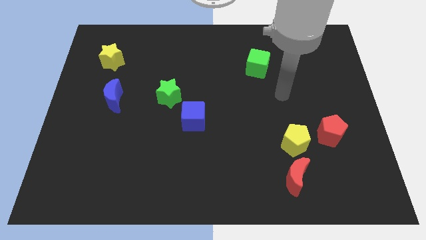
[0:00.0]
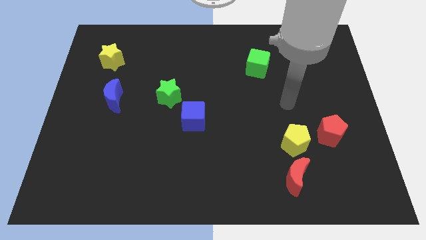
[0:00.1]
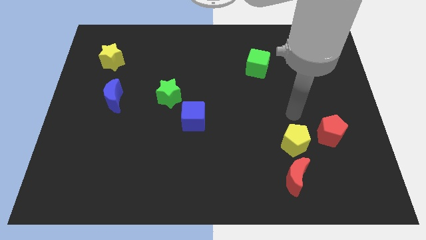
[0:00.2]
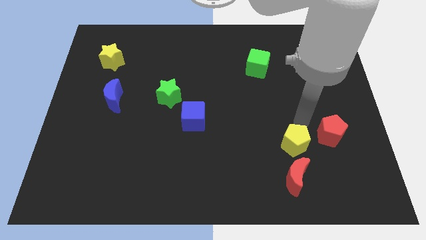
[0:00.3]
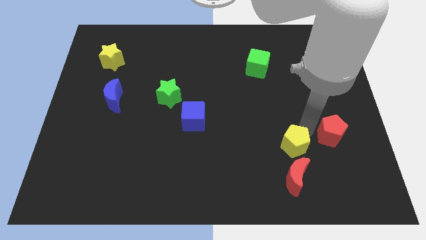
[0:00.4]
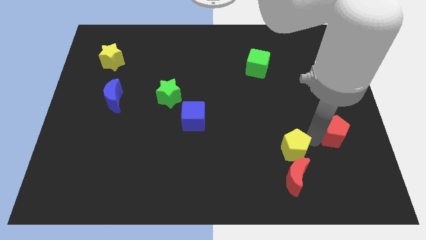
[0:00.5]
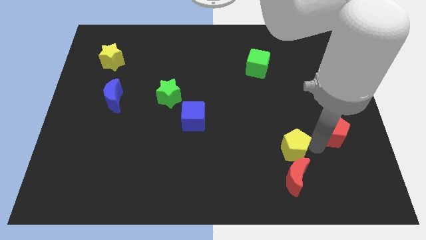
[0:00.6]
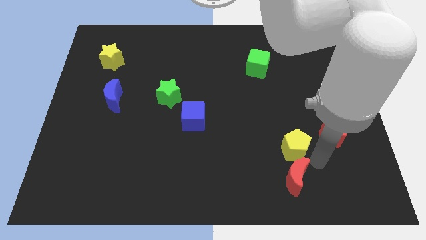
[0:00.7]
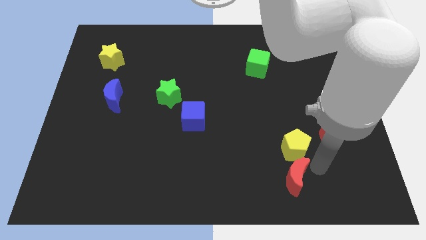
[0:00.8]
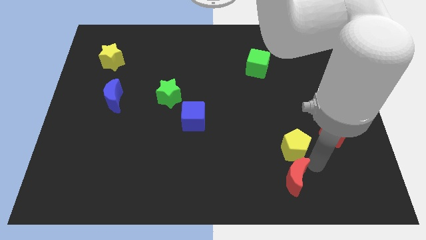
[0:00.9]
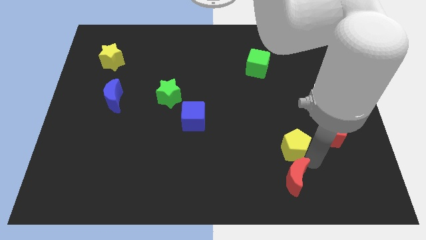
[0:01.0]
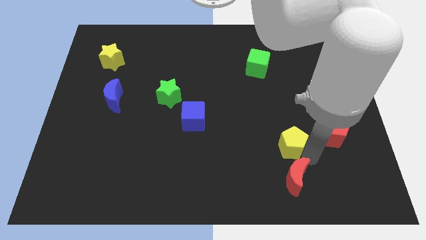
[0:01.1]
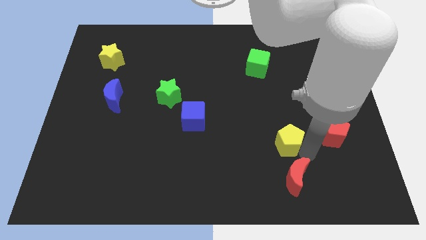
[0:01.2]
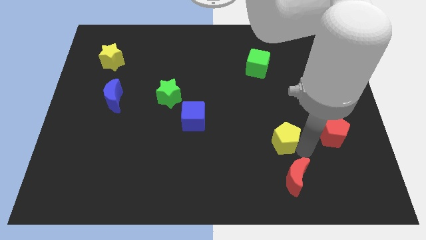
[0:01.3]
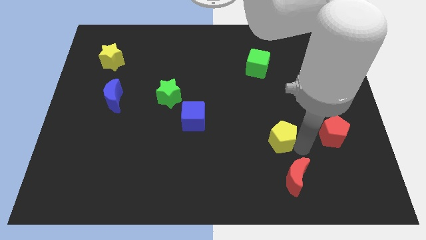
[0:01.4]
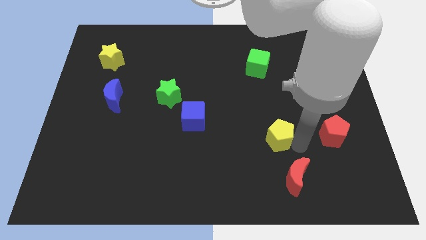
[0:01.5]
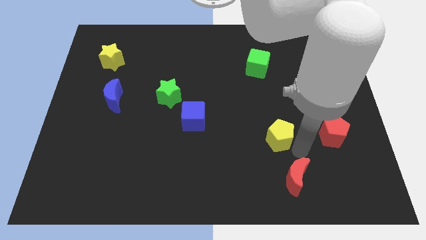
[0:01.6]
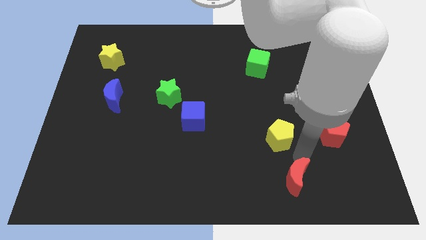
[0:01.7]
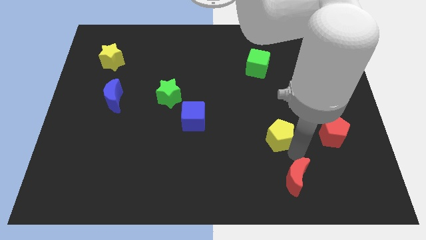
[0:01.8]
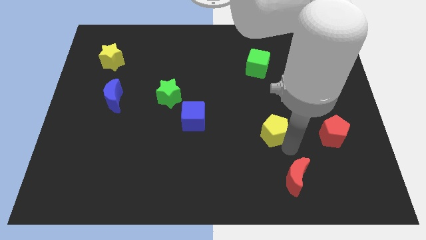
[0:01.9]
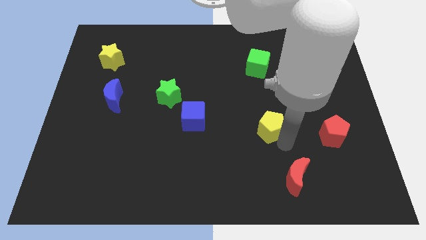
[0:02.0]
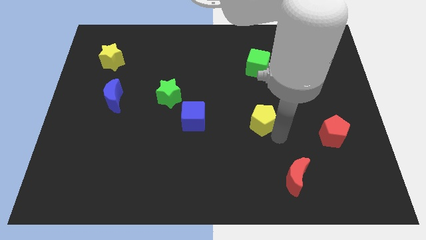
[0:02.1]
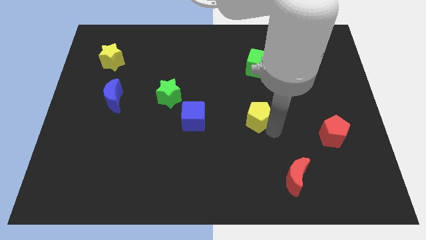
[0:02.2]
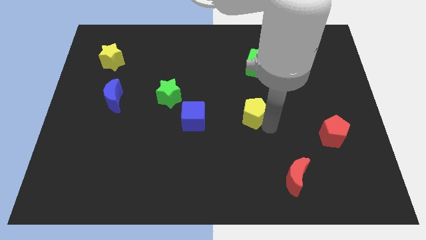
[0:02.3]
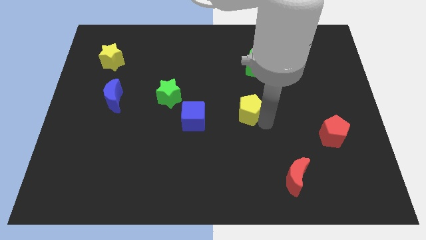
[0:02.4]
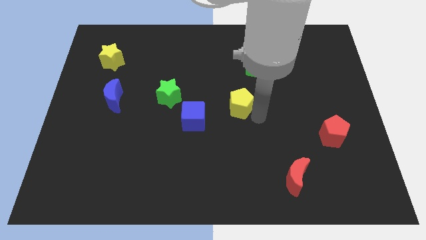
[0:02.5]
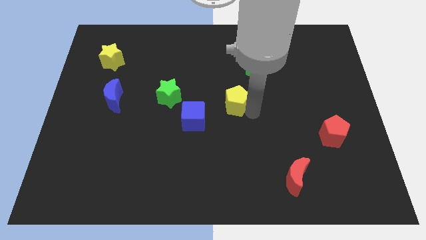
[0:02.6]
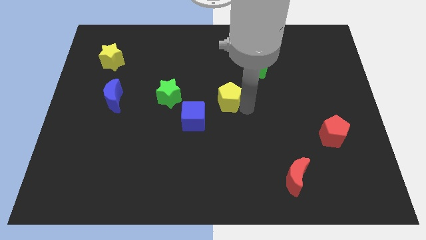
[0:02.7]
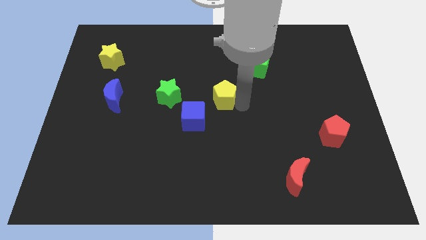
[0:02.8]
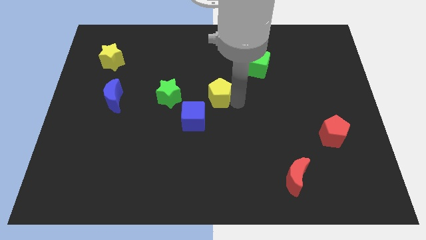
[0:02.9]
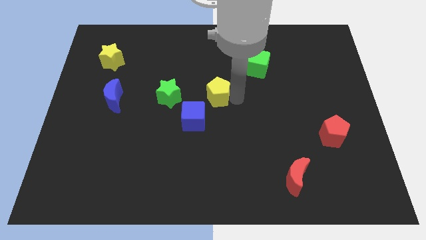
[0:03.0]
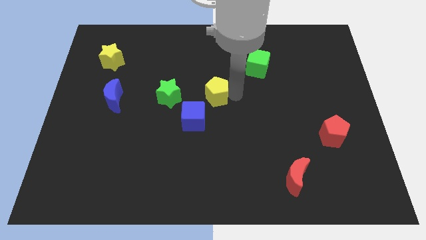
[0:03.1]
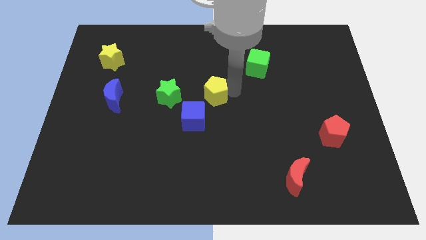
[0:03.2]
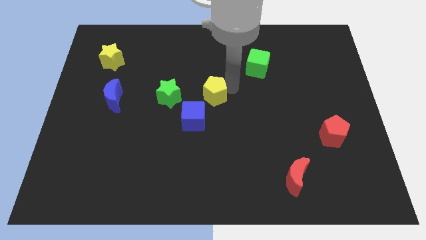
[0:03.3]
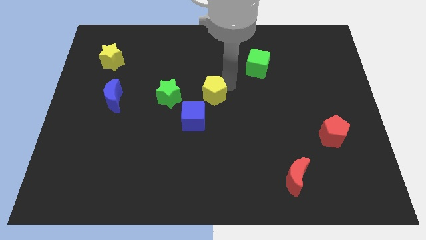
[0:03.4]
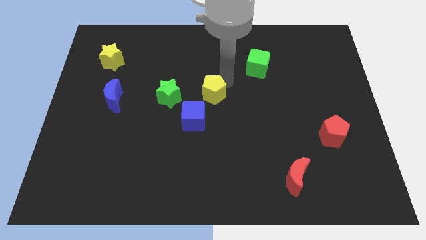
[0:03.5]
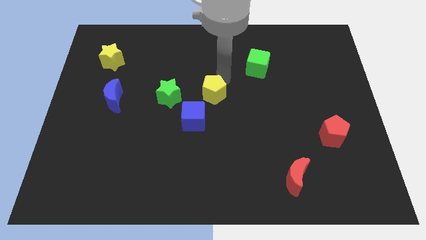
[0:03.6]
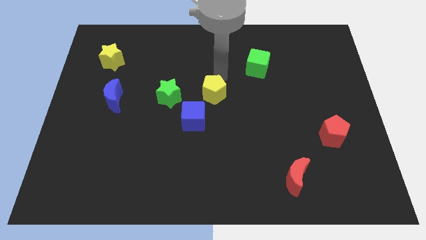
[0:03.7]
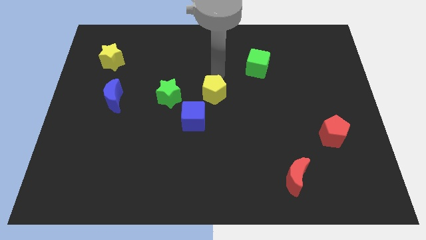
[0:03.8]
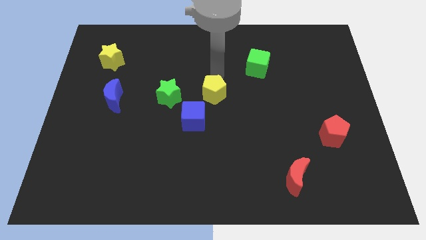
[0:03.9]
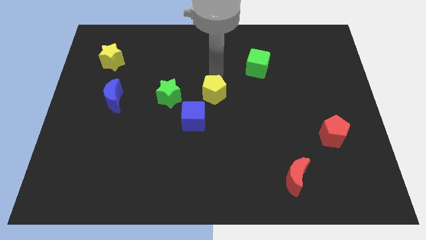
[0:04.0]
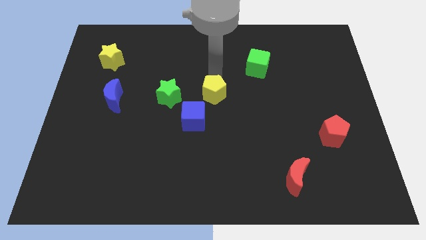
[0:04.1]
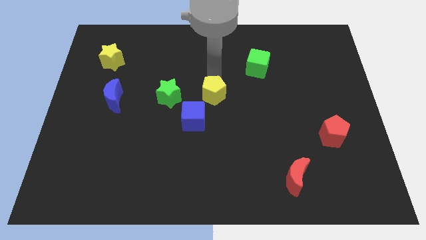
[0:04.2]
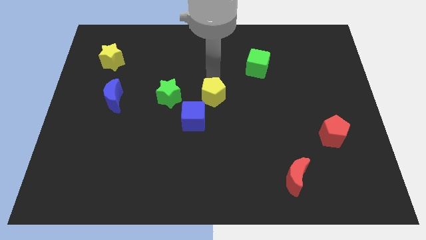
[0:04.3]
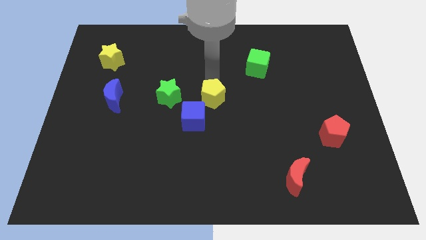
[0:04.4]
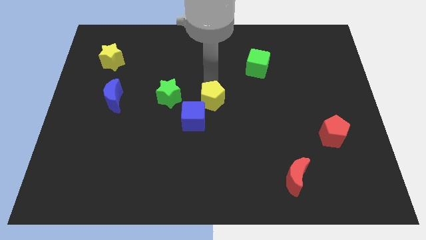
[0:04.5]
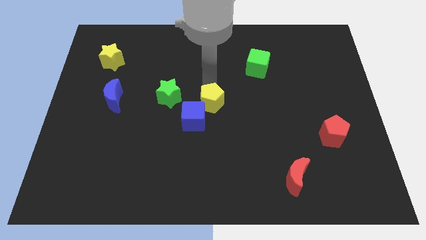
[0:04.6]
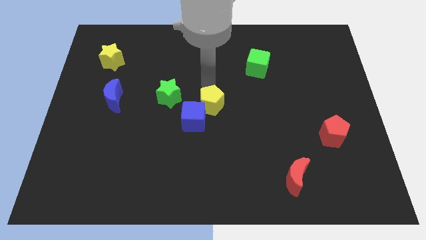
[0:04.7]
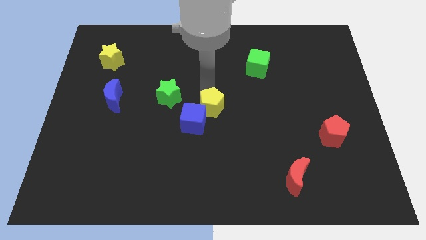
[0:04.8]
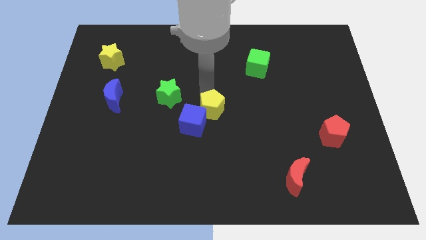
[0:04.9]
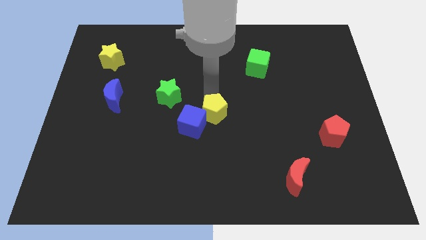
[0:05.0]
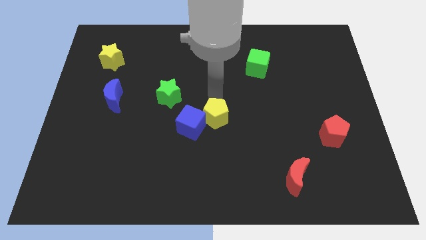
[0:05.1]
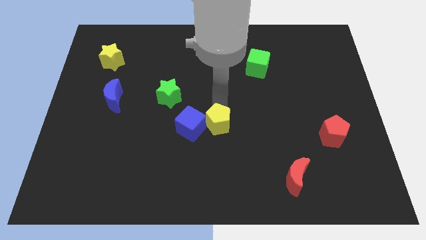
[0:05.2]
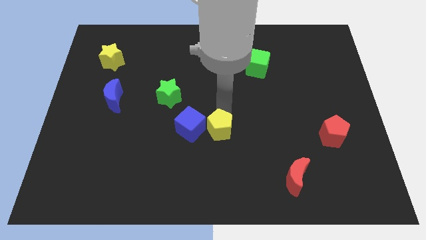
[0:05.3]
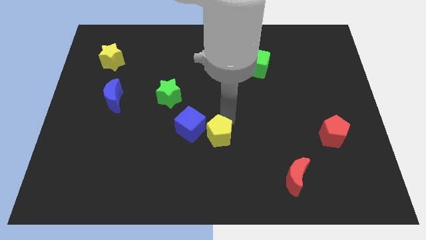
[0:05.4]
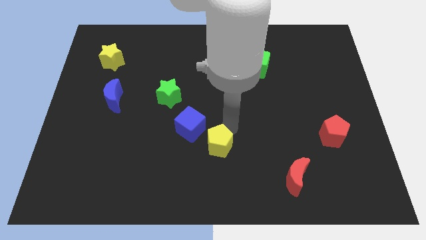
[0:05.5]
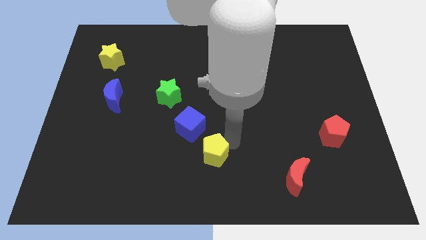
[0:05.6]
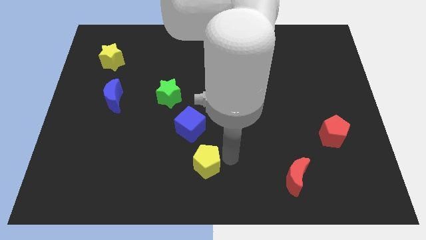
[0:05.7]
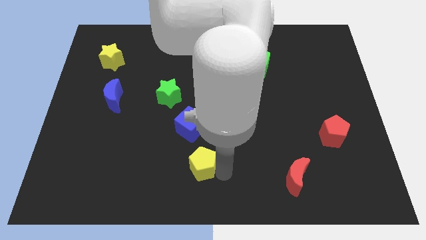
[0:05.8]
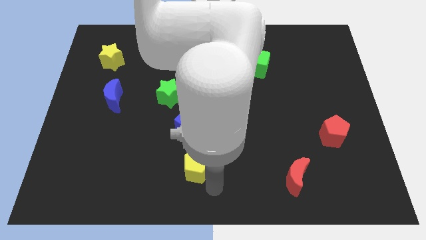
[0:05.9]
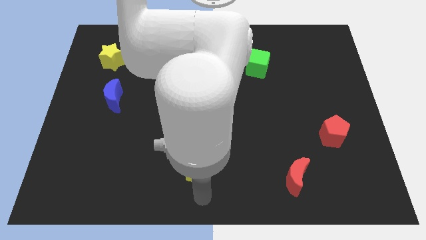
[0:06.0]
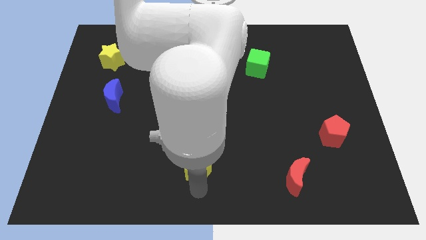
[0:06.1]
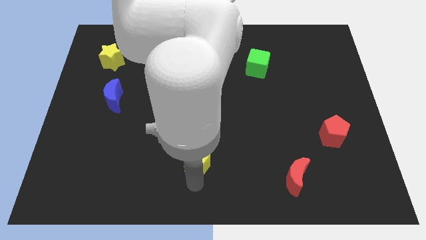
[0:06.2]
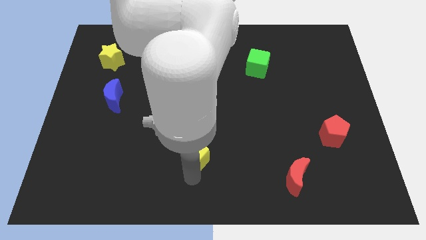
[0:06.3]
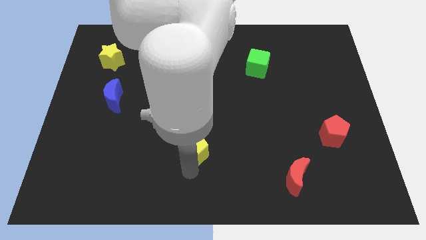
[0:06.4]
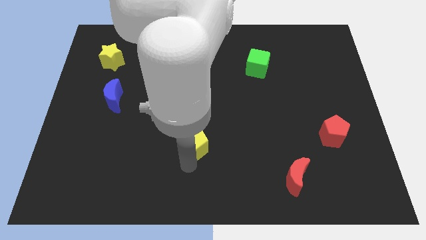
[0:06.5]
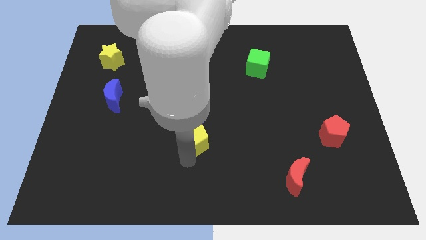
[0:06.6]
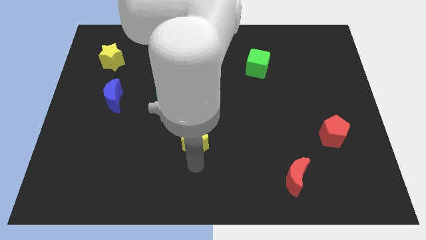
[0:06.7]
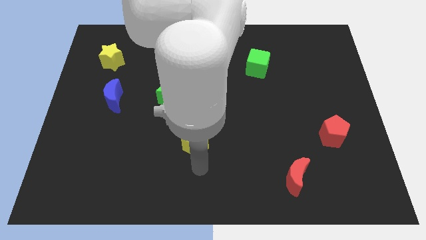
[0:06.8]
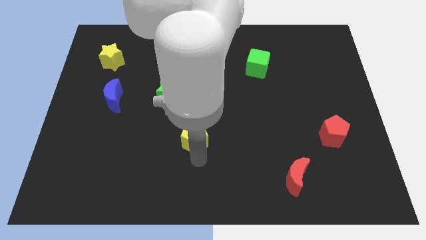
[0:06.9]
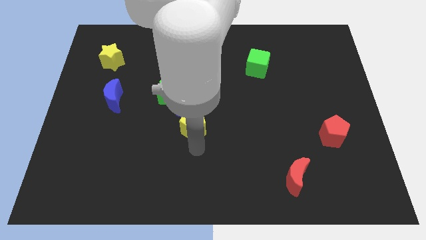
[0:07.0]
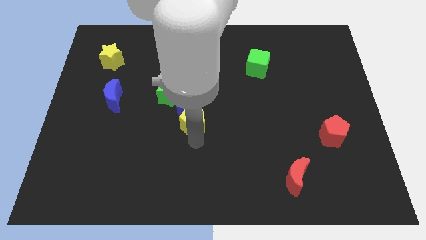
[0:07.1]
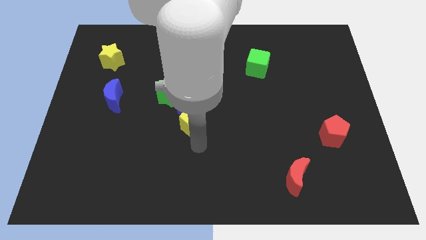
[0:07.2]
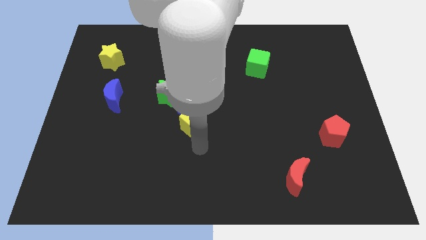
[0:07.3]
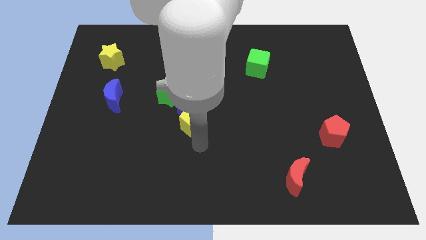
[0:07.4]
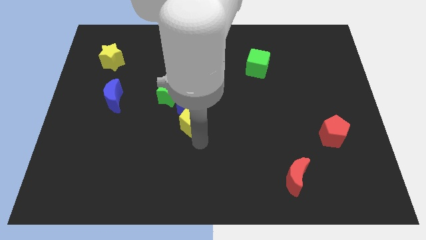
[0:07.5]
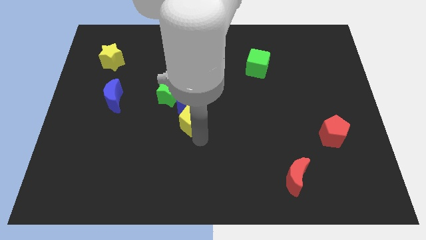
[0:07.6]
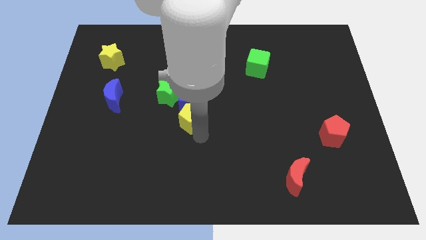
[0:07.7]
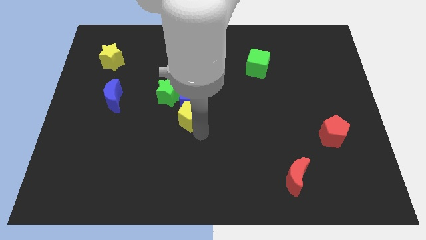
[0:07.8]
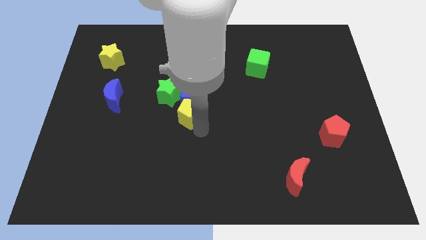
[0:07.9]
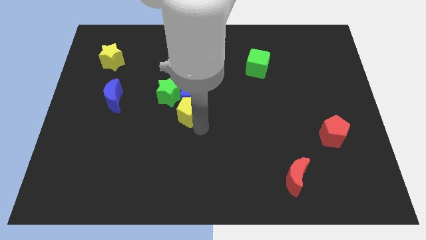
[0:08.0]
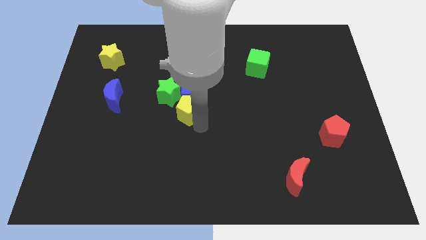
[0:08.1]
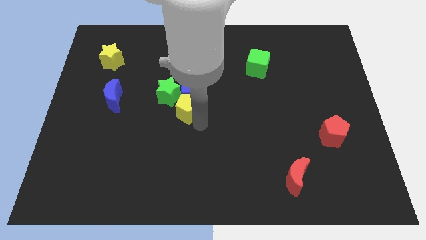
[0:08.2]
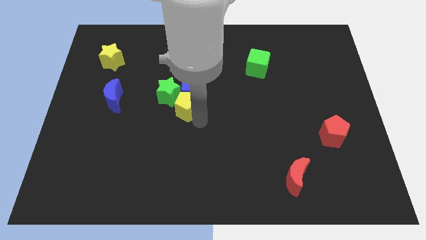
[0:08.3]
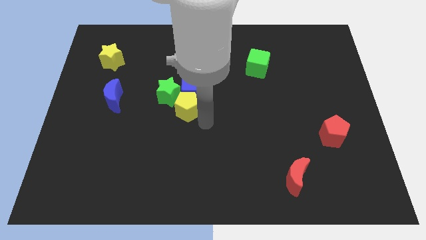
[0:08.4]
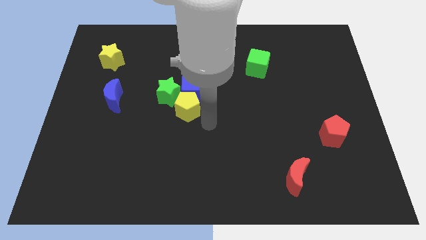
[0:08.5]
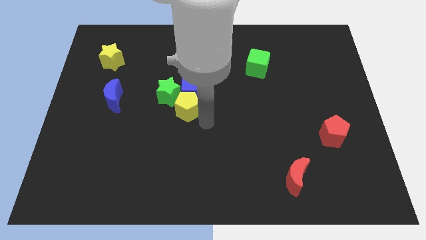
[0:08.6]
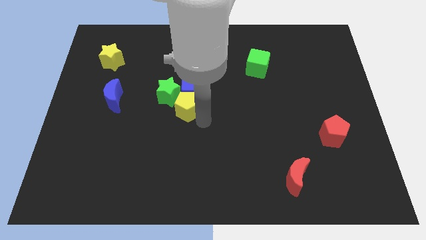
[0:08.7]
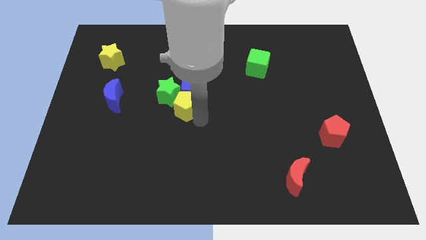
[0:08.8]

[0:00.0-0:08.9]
slide the yellow pentagon next to the green star
